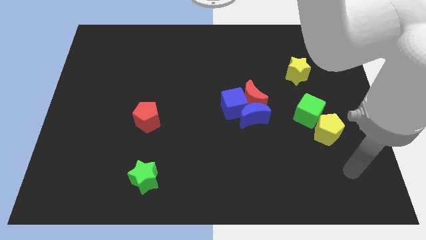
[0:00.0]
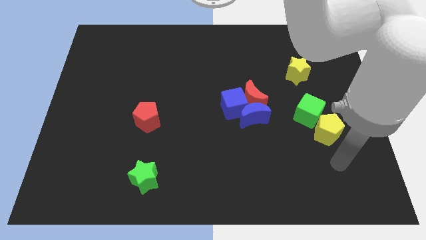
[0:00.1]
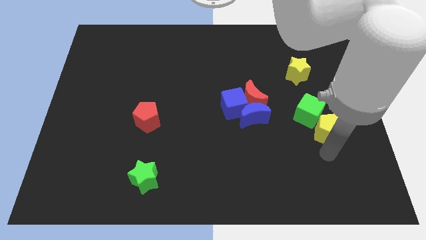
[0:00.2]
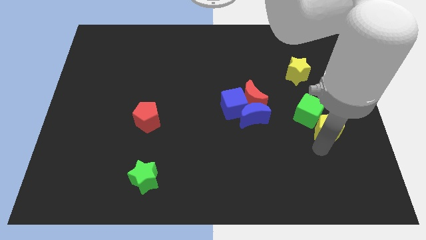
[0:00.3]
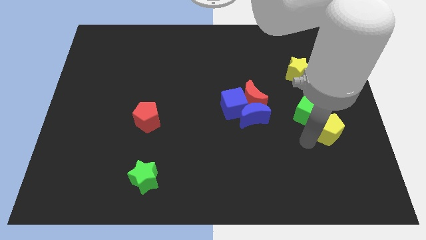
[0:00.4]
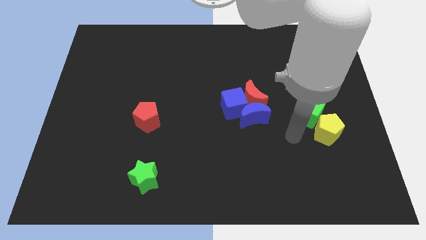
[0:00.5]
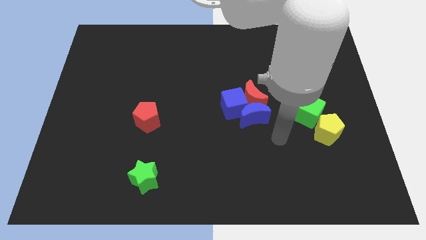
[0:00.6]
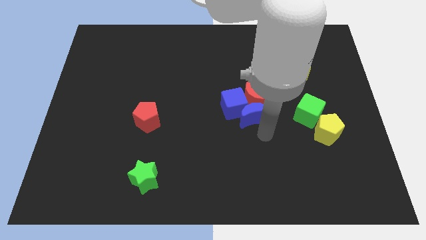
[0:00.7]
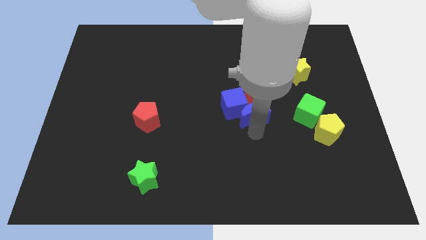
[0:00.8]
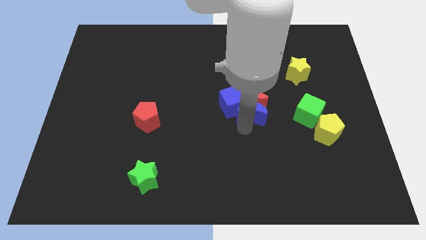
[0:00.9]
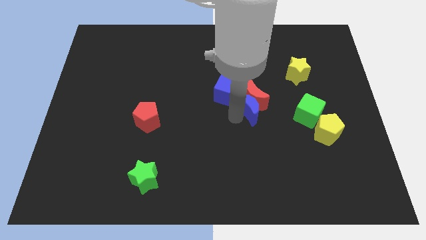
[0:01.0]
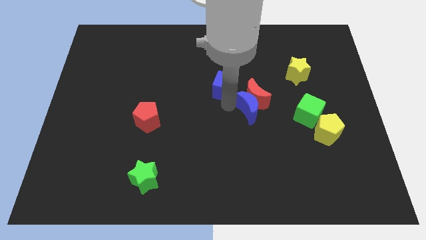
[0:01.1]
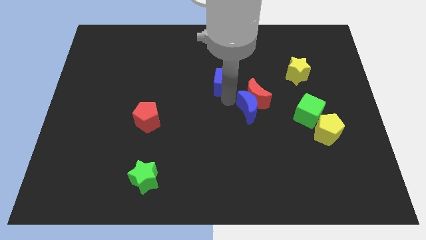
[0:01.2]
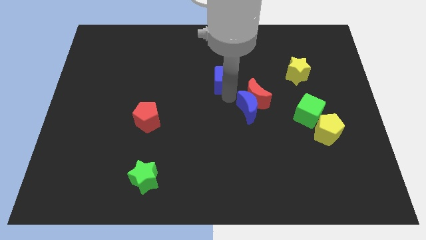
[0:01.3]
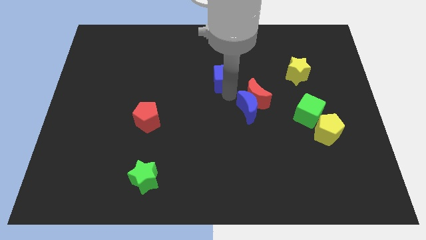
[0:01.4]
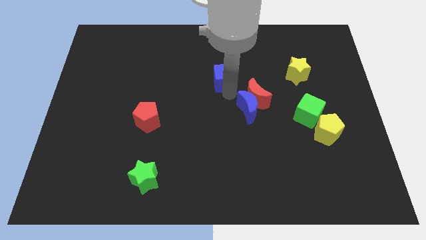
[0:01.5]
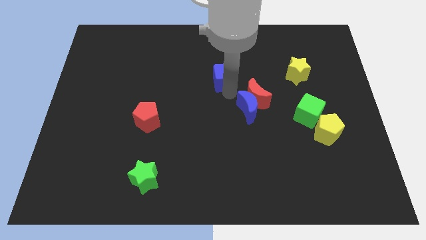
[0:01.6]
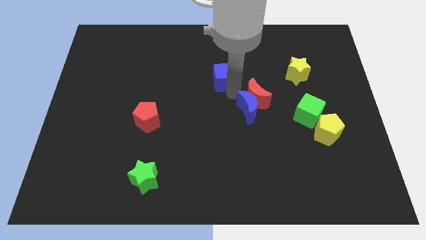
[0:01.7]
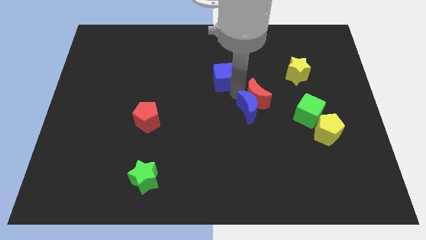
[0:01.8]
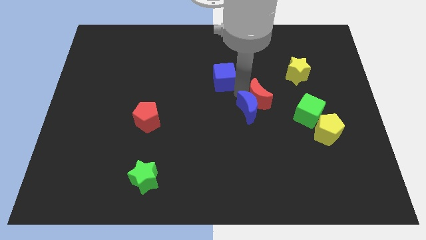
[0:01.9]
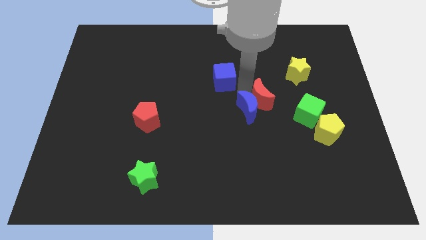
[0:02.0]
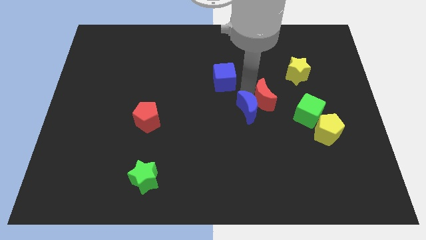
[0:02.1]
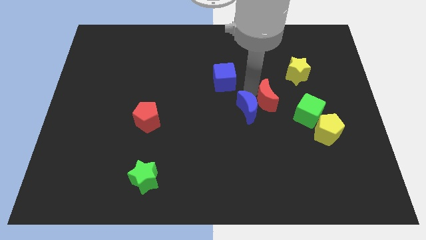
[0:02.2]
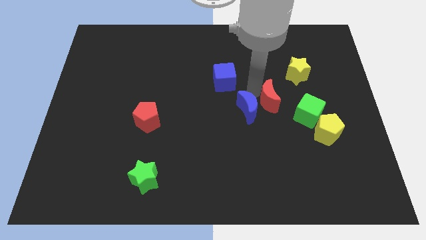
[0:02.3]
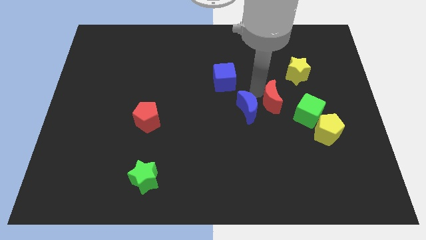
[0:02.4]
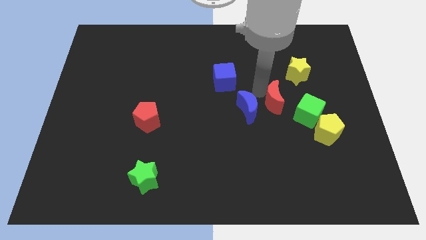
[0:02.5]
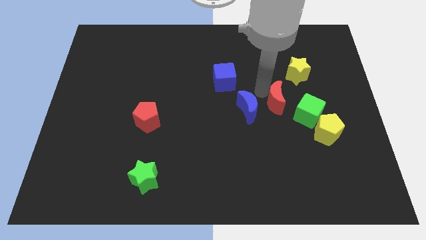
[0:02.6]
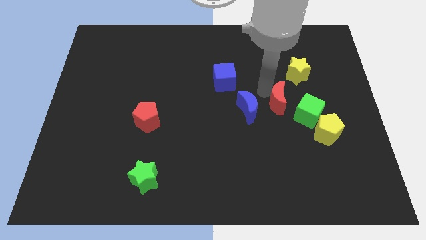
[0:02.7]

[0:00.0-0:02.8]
separate the red moon from the blue cube and blue moon

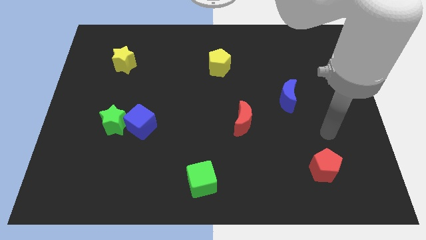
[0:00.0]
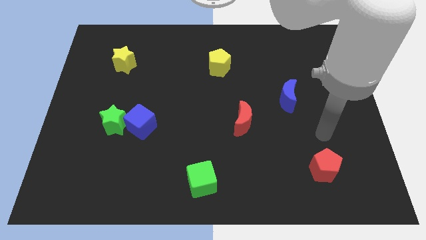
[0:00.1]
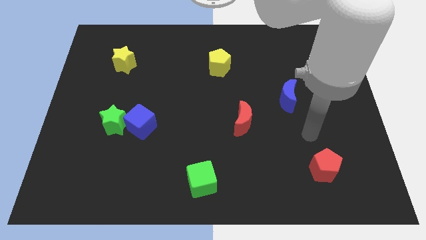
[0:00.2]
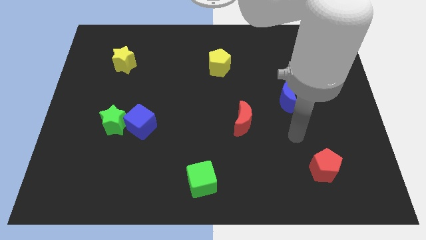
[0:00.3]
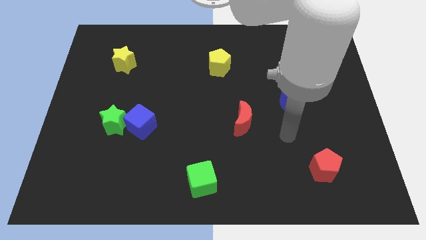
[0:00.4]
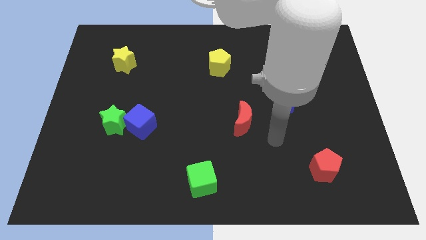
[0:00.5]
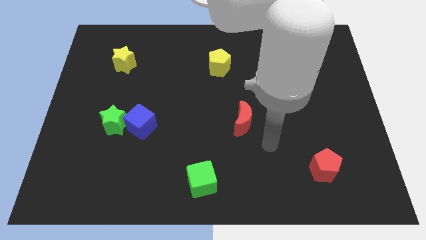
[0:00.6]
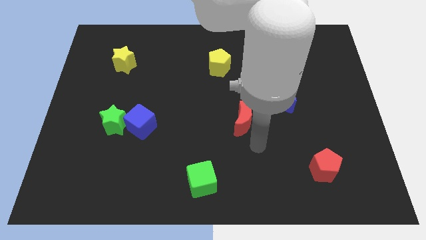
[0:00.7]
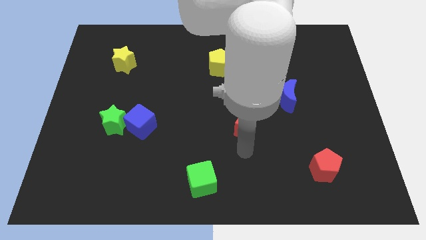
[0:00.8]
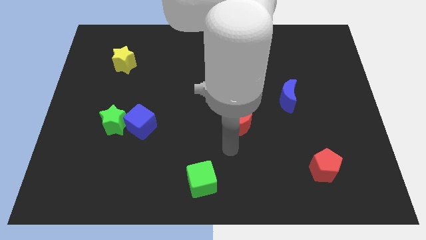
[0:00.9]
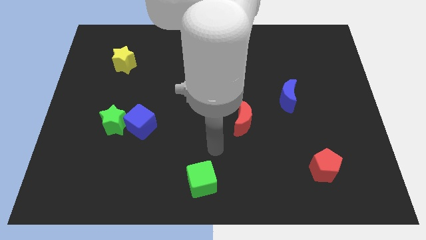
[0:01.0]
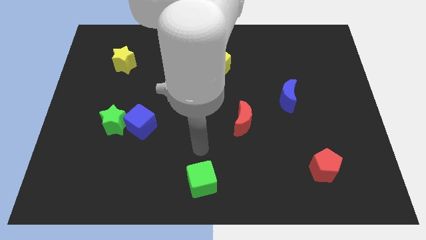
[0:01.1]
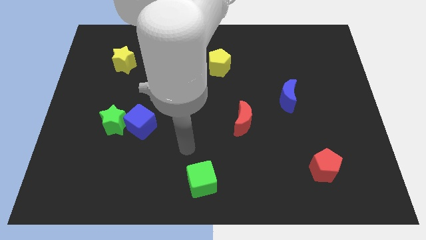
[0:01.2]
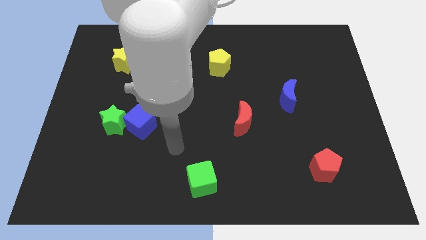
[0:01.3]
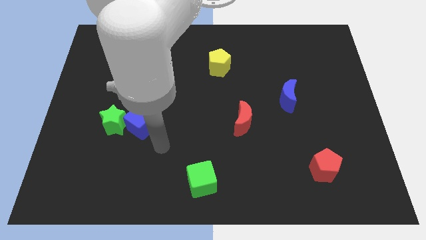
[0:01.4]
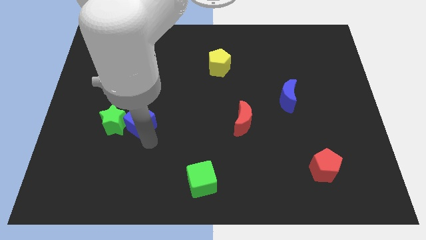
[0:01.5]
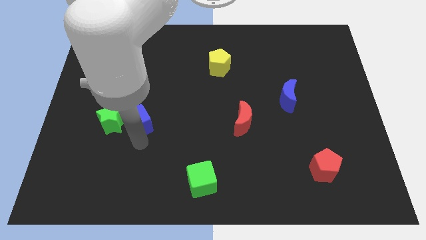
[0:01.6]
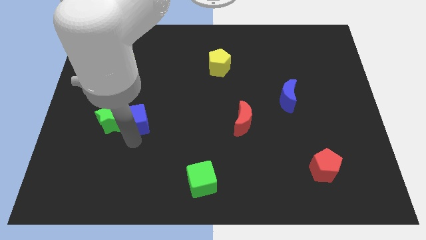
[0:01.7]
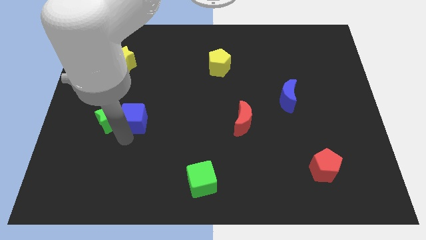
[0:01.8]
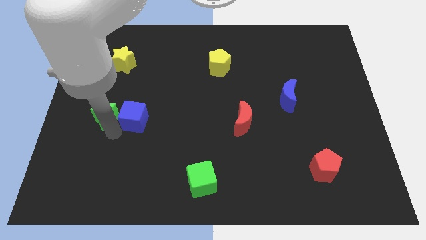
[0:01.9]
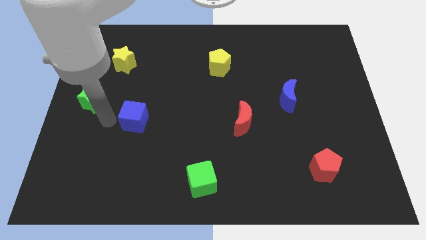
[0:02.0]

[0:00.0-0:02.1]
move the blue cube away from the green star

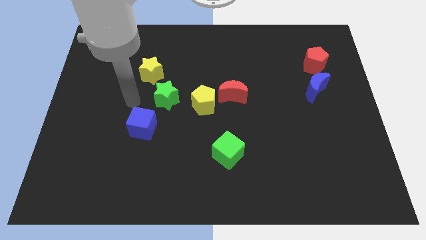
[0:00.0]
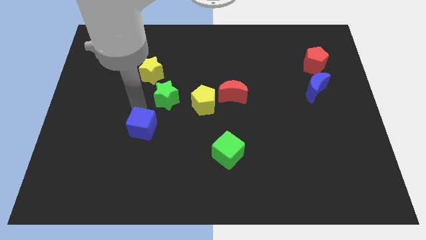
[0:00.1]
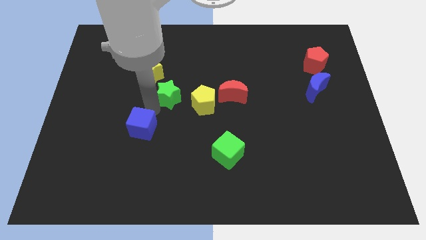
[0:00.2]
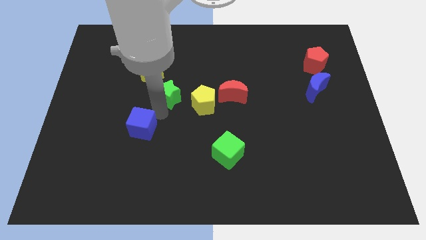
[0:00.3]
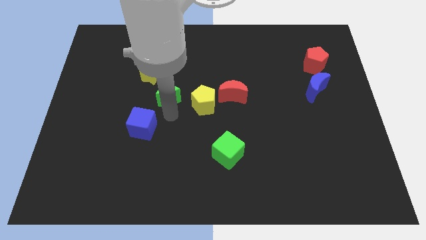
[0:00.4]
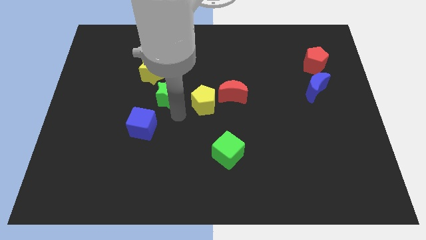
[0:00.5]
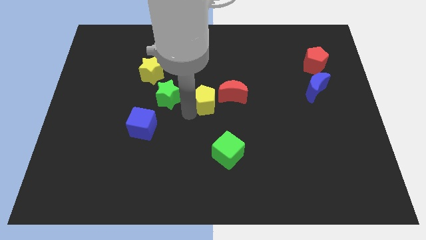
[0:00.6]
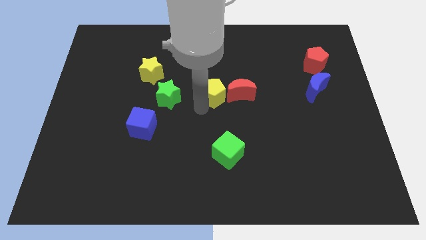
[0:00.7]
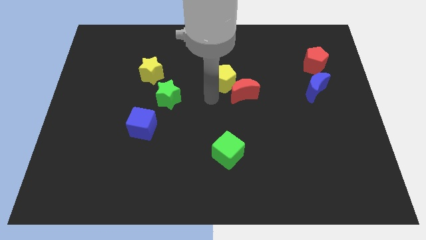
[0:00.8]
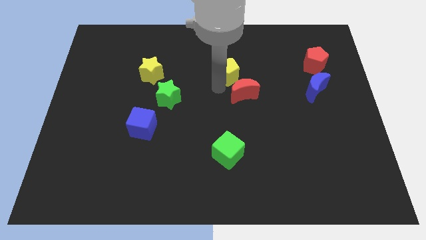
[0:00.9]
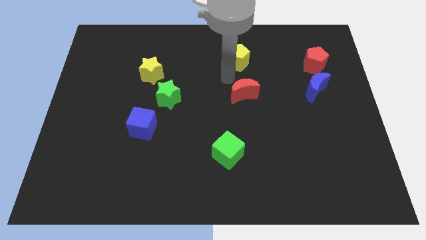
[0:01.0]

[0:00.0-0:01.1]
pull the red moon apart from the yellow pentagon

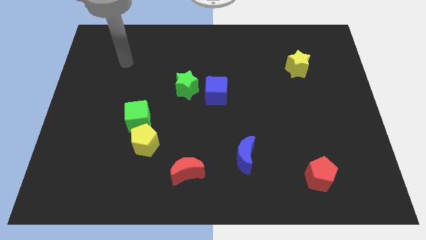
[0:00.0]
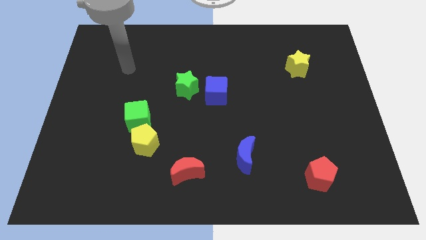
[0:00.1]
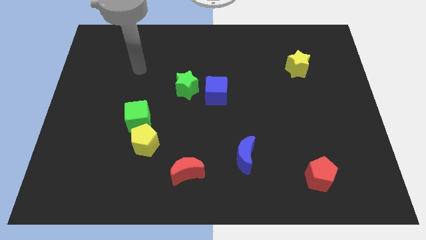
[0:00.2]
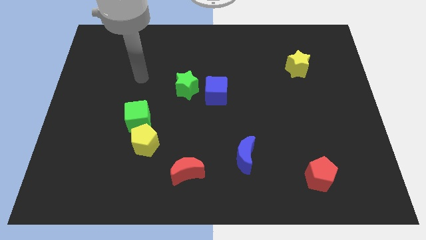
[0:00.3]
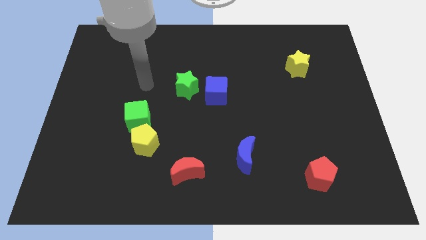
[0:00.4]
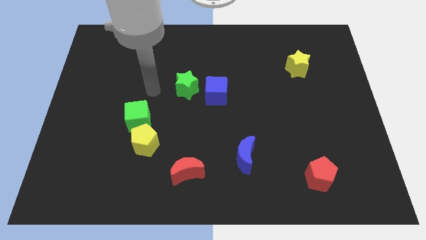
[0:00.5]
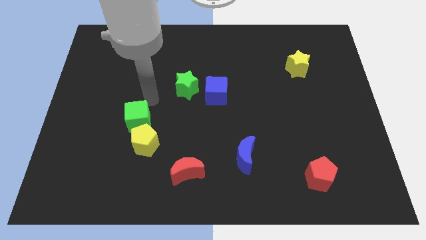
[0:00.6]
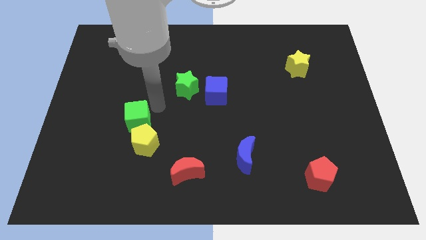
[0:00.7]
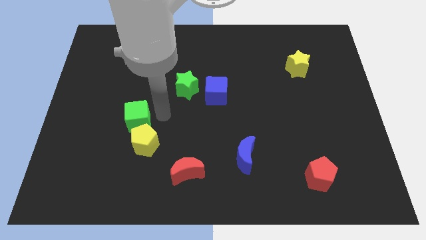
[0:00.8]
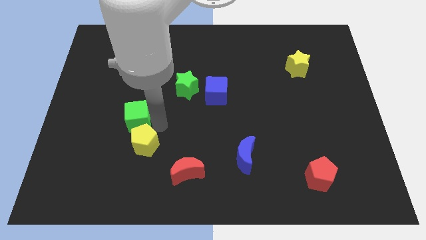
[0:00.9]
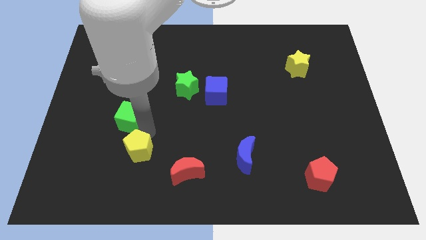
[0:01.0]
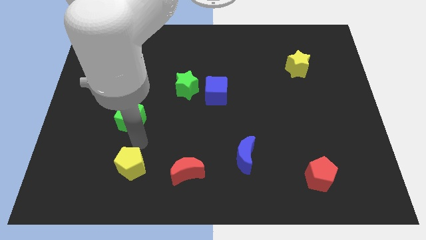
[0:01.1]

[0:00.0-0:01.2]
separate the green cube from the yellow pentagon

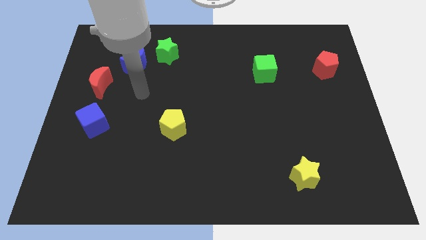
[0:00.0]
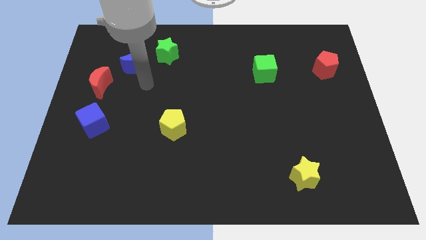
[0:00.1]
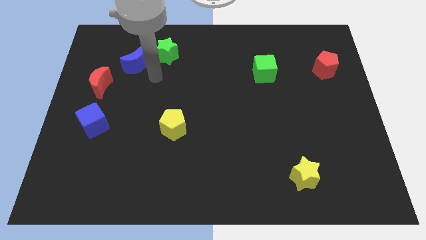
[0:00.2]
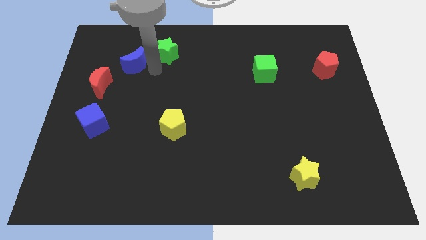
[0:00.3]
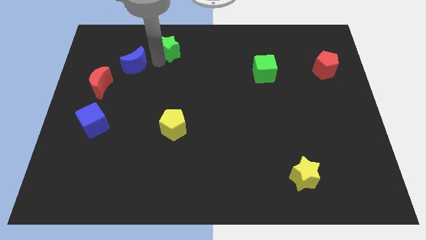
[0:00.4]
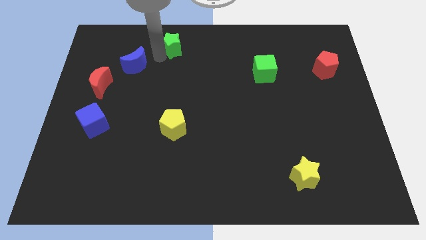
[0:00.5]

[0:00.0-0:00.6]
move the blue moon away from the green star

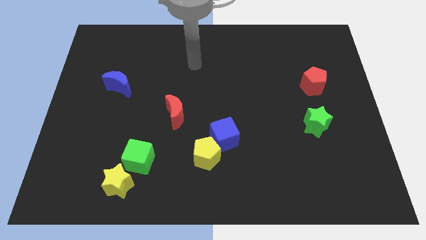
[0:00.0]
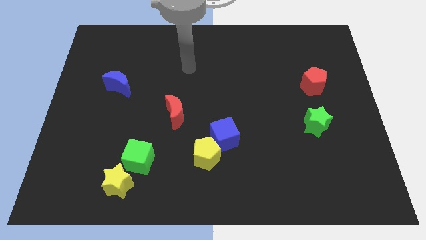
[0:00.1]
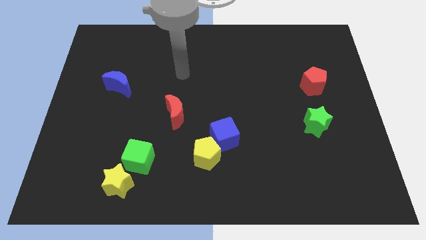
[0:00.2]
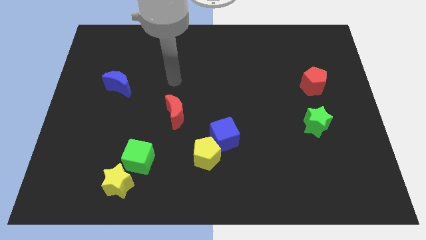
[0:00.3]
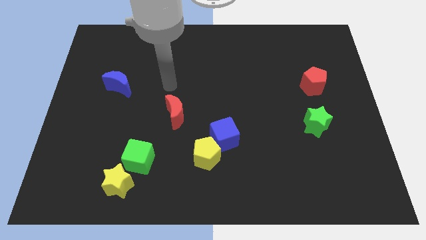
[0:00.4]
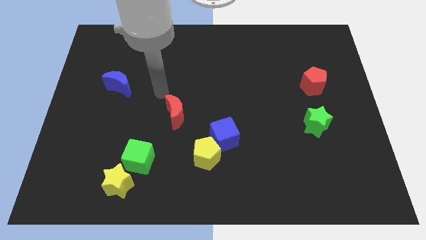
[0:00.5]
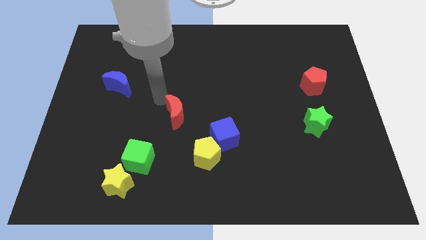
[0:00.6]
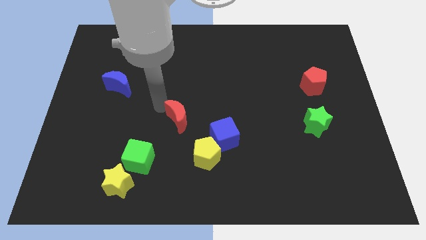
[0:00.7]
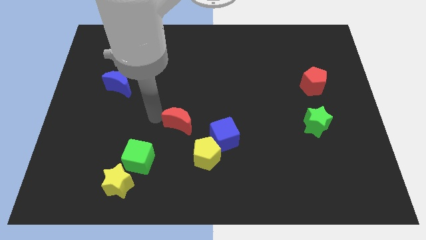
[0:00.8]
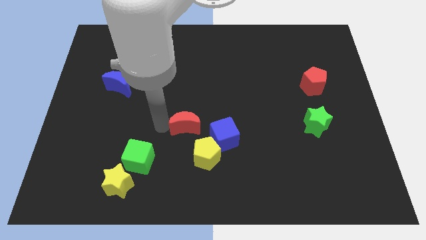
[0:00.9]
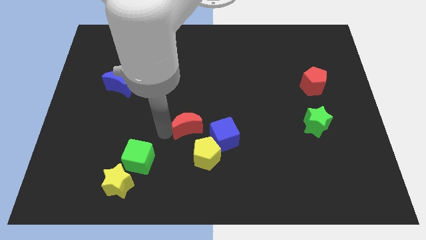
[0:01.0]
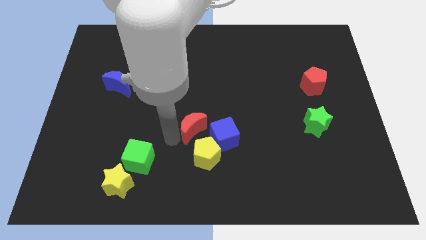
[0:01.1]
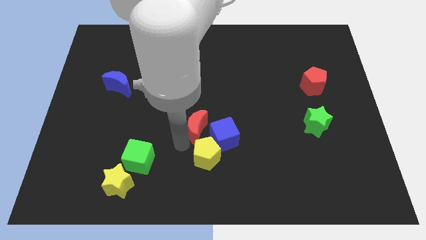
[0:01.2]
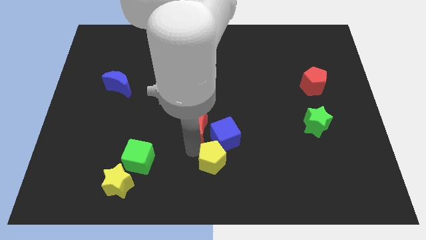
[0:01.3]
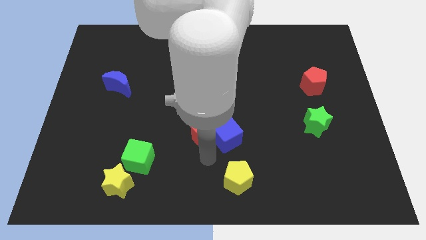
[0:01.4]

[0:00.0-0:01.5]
pull the blue cube apart from the yellow pentagon
